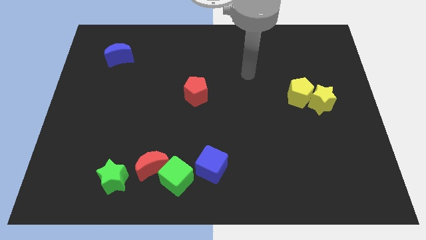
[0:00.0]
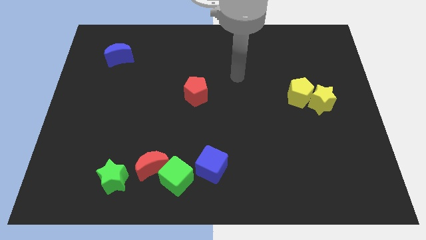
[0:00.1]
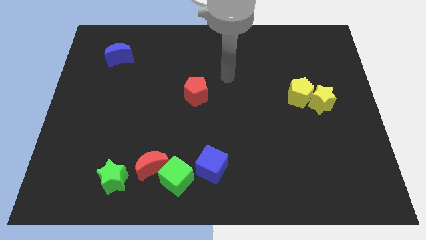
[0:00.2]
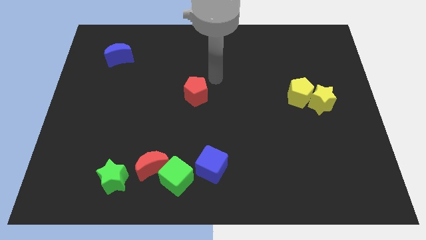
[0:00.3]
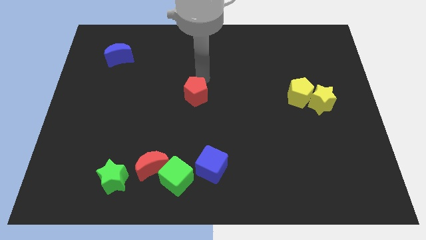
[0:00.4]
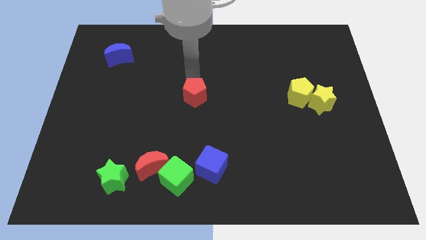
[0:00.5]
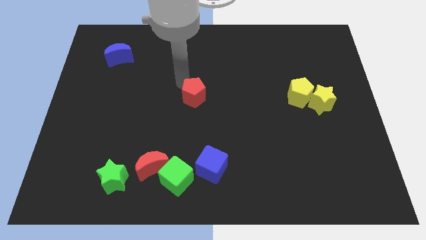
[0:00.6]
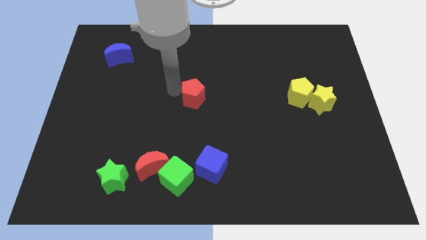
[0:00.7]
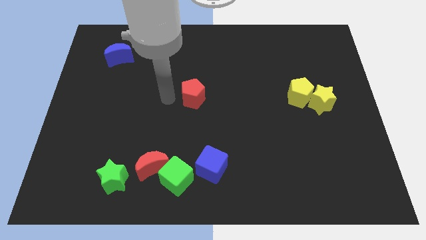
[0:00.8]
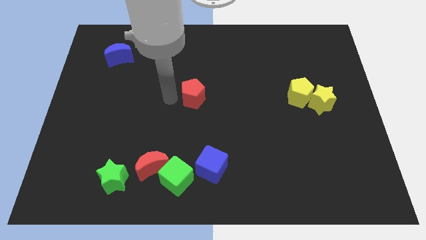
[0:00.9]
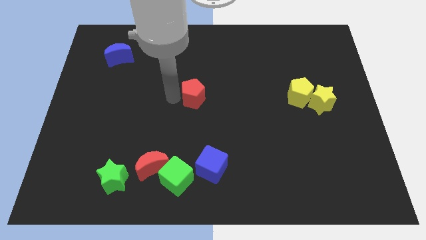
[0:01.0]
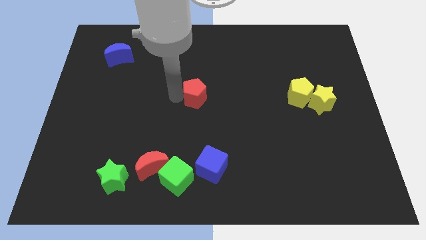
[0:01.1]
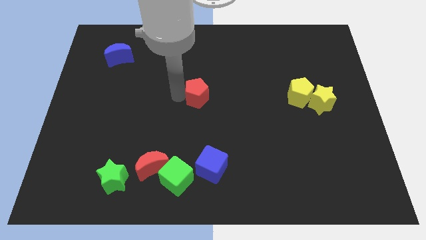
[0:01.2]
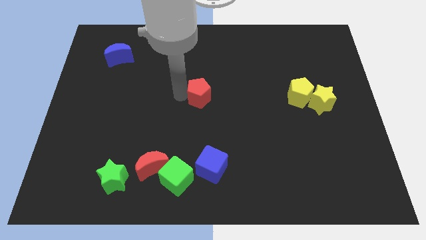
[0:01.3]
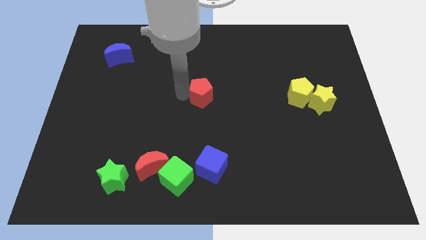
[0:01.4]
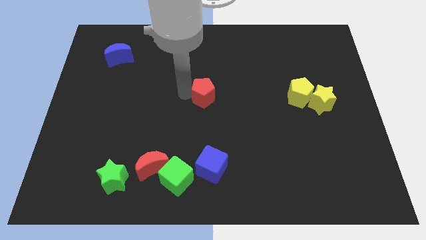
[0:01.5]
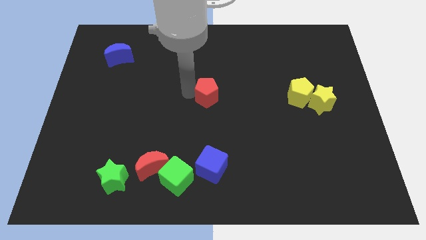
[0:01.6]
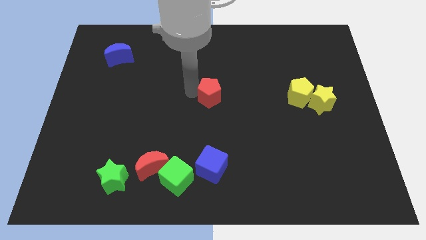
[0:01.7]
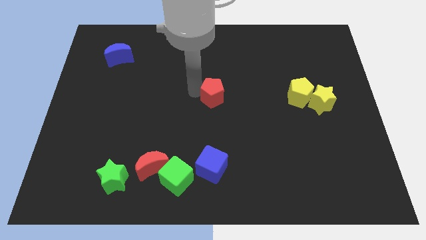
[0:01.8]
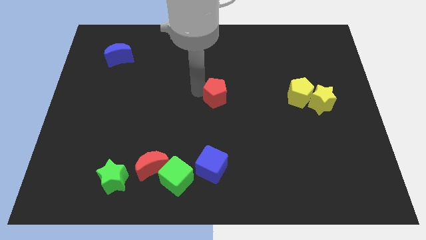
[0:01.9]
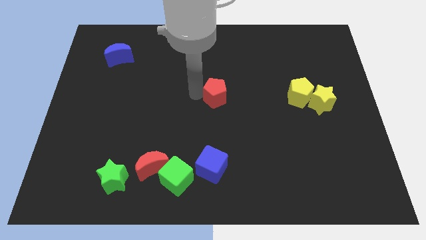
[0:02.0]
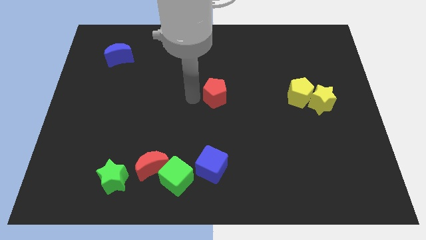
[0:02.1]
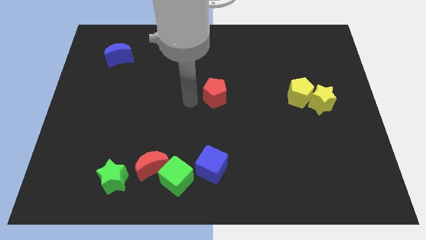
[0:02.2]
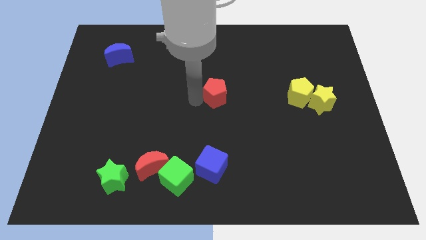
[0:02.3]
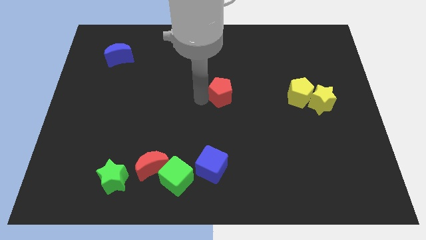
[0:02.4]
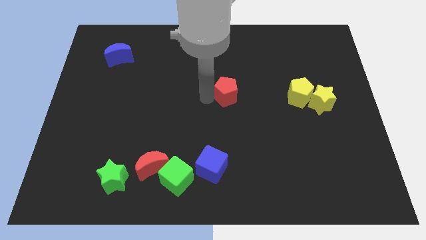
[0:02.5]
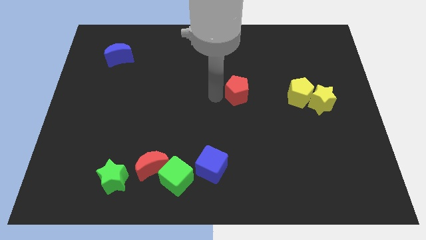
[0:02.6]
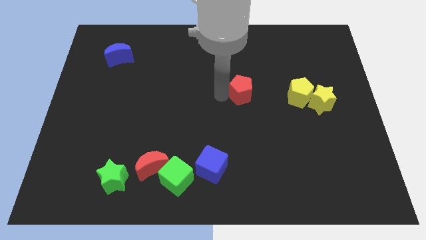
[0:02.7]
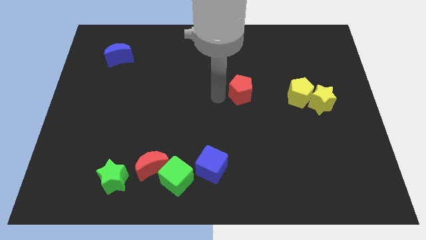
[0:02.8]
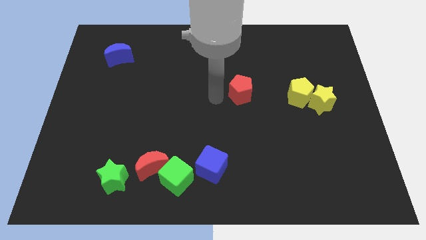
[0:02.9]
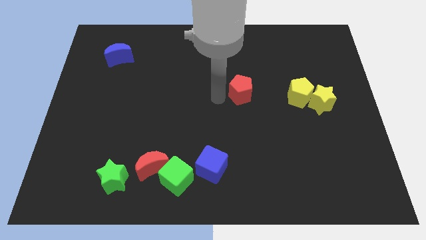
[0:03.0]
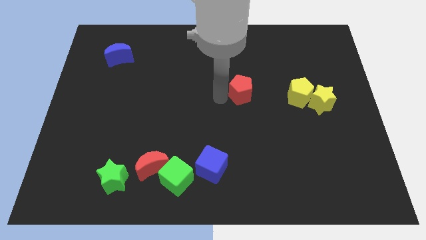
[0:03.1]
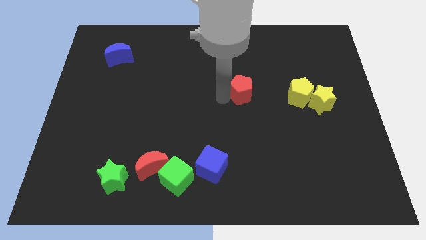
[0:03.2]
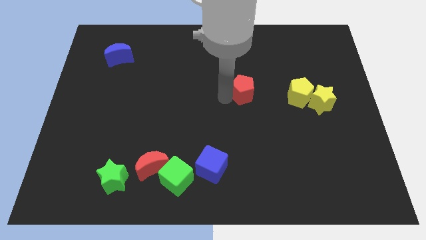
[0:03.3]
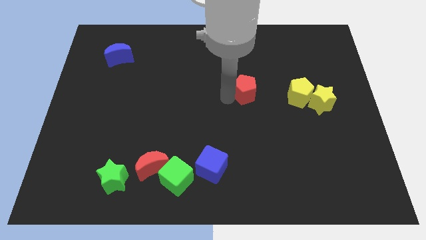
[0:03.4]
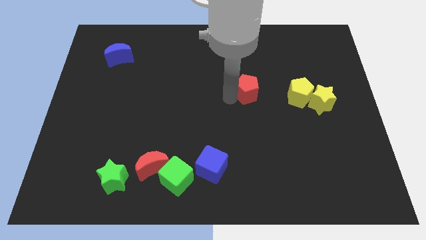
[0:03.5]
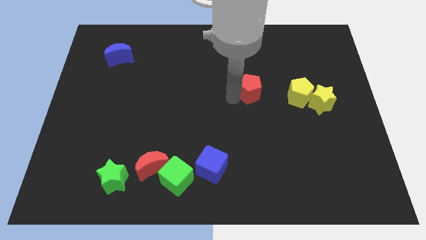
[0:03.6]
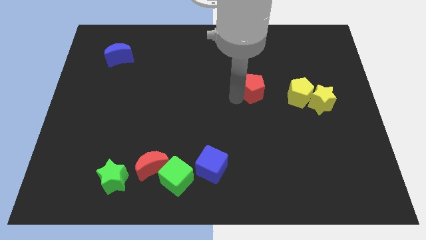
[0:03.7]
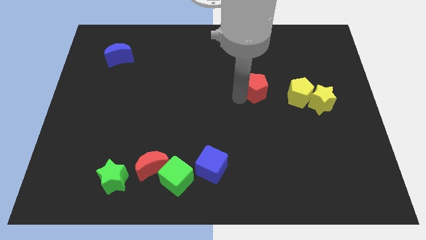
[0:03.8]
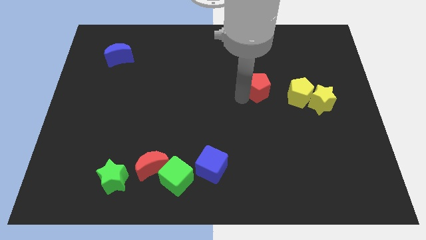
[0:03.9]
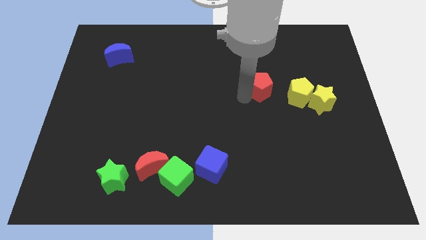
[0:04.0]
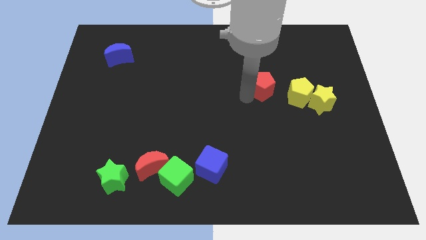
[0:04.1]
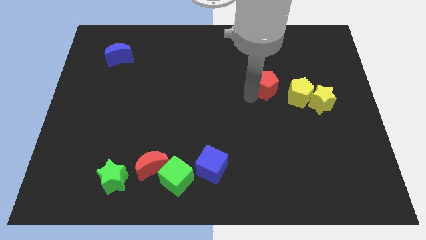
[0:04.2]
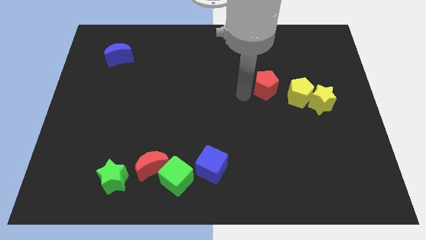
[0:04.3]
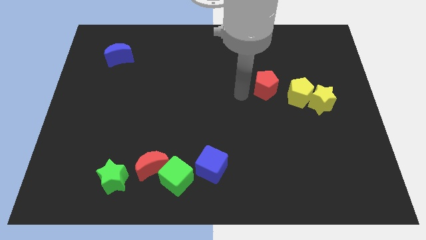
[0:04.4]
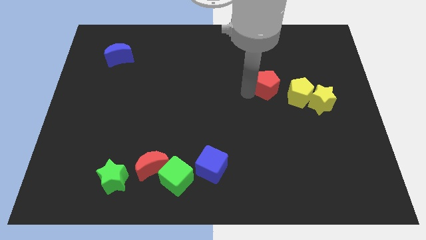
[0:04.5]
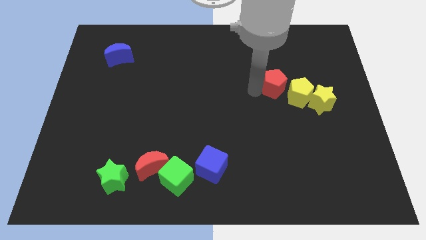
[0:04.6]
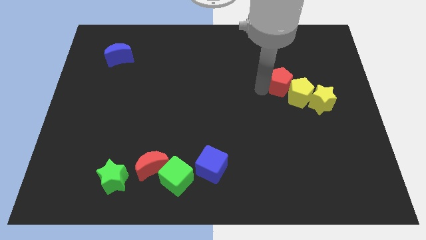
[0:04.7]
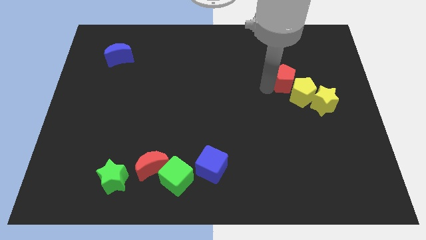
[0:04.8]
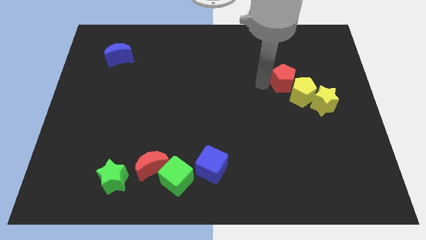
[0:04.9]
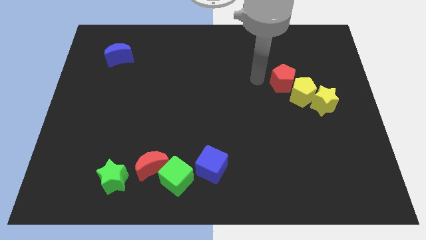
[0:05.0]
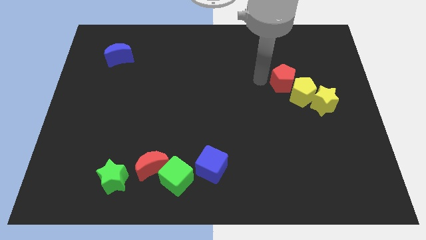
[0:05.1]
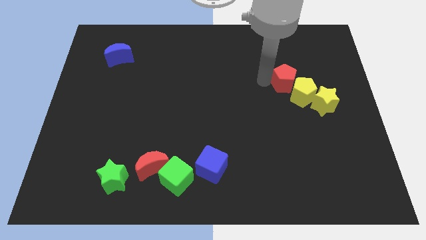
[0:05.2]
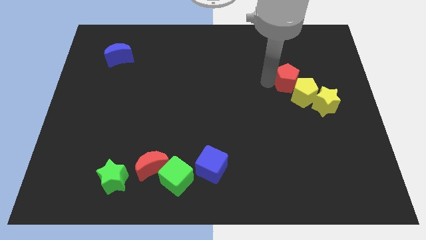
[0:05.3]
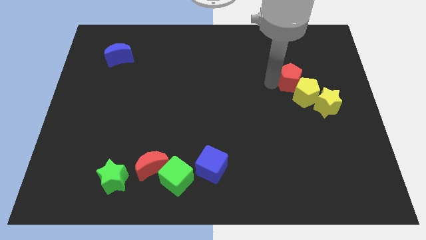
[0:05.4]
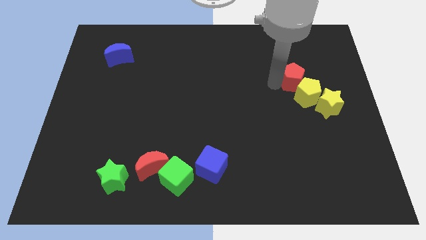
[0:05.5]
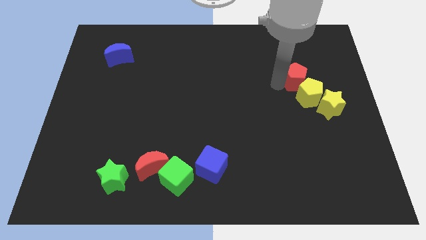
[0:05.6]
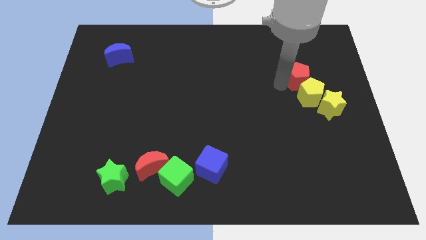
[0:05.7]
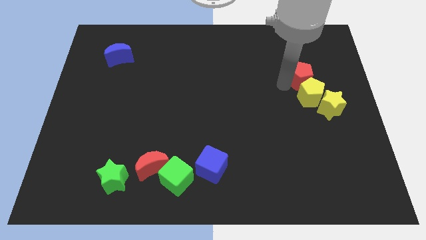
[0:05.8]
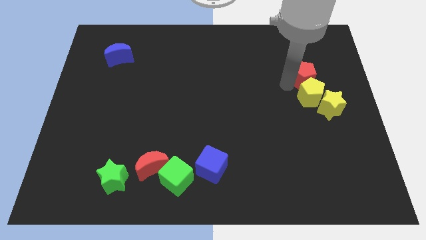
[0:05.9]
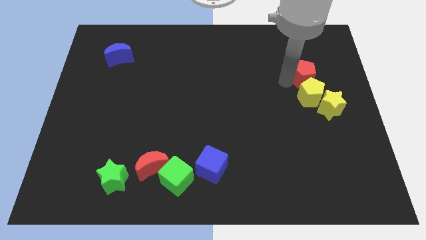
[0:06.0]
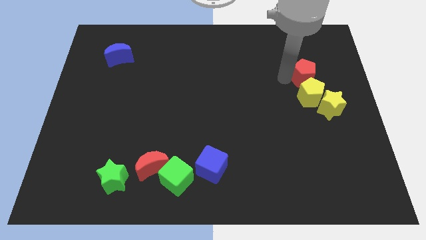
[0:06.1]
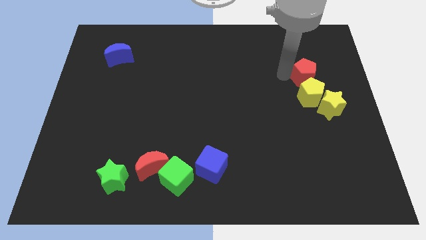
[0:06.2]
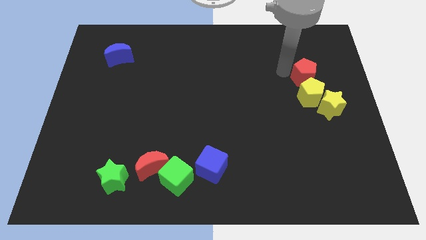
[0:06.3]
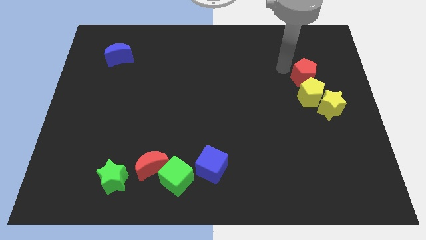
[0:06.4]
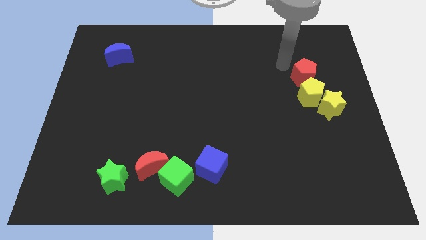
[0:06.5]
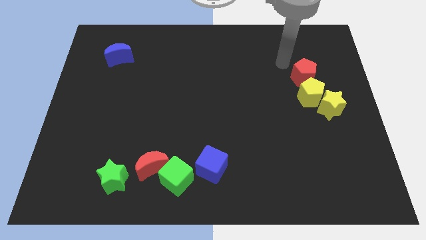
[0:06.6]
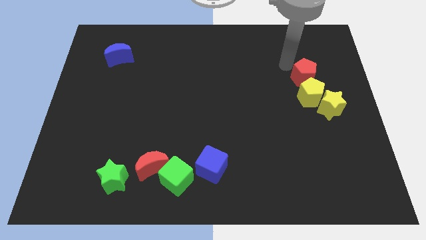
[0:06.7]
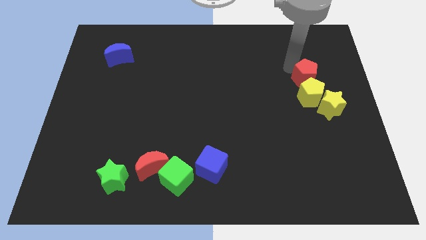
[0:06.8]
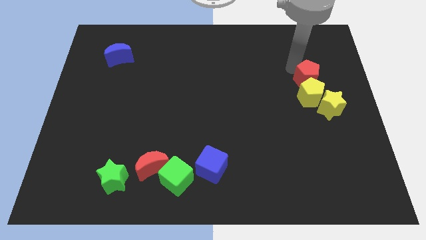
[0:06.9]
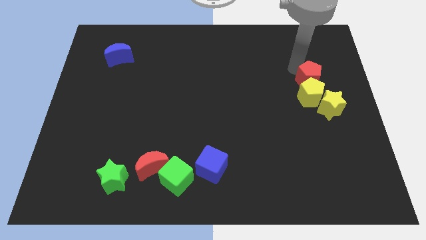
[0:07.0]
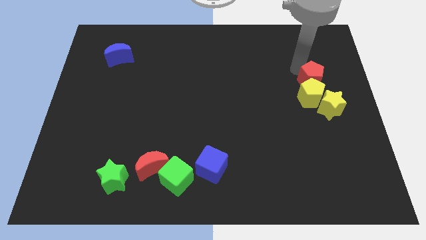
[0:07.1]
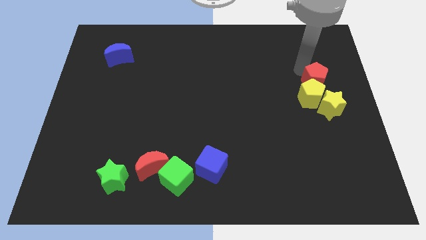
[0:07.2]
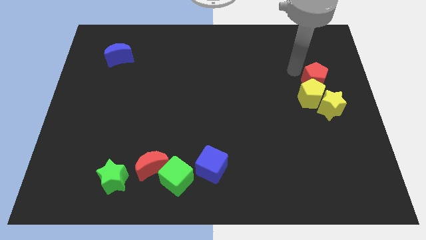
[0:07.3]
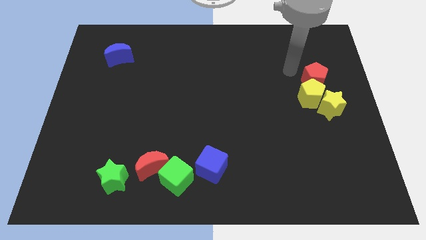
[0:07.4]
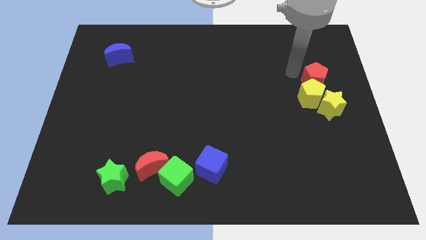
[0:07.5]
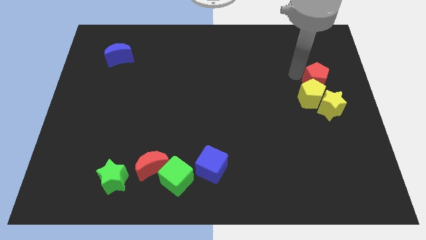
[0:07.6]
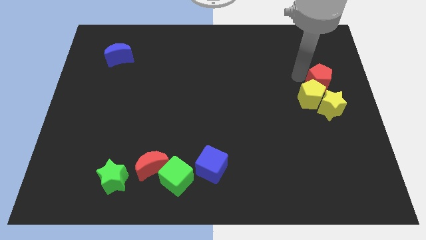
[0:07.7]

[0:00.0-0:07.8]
push the red pentagon to the center right
